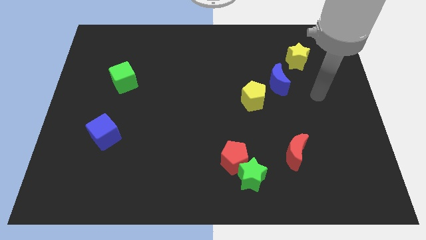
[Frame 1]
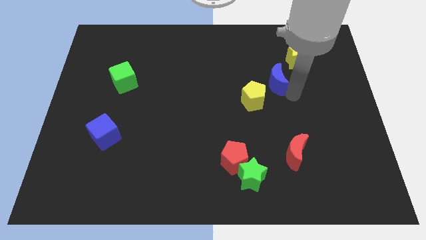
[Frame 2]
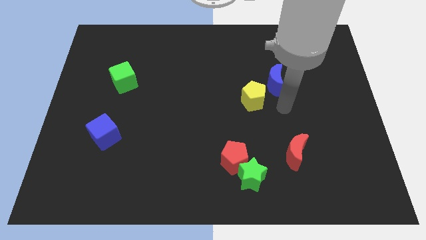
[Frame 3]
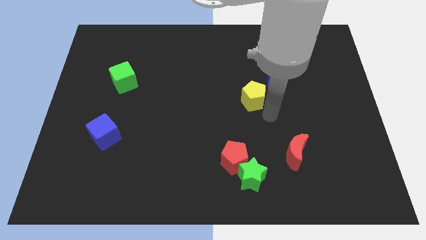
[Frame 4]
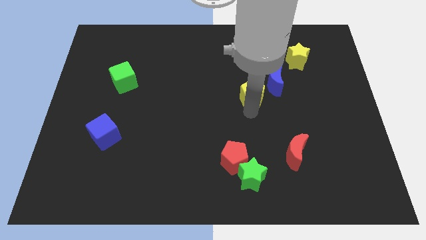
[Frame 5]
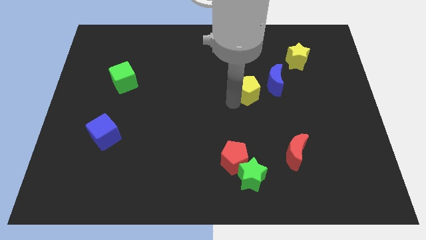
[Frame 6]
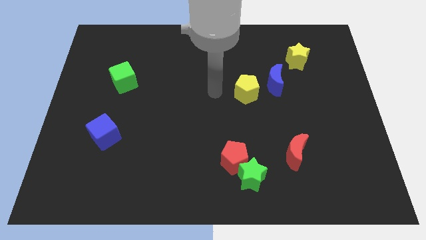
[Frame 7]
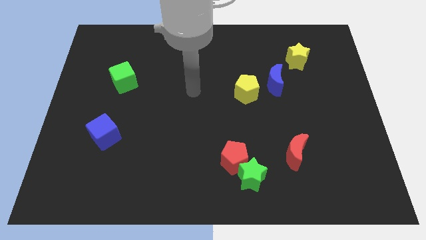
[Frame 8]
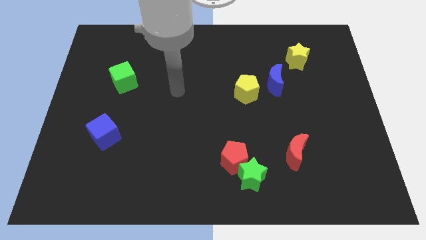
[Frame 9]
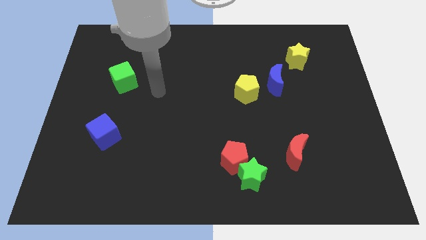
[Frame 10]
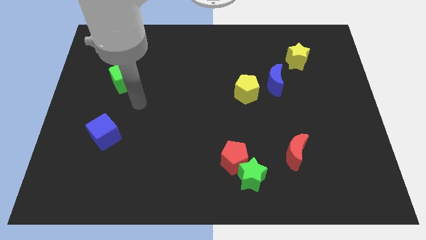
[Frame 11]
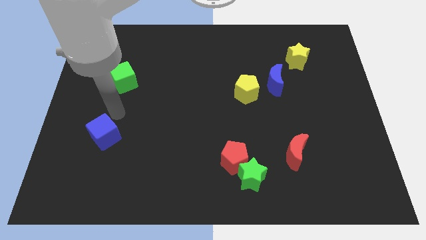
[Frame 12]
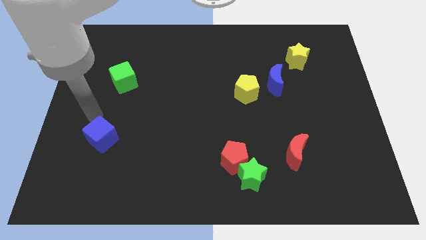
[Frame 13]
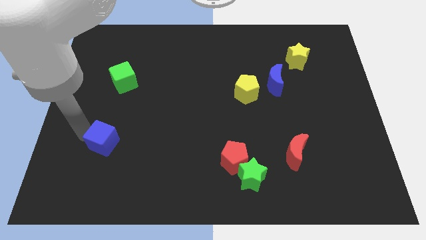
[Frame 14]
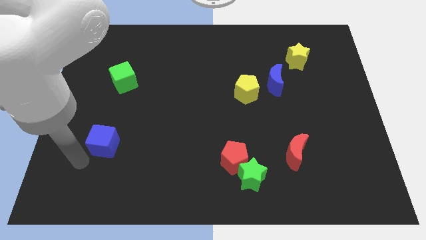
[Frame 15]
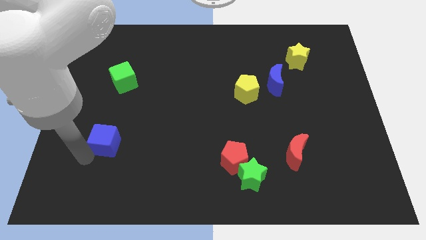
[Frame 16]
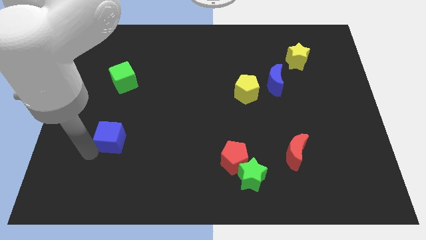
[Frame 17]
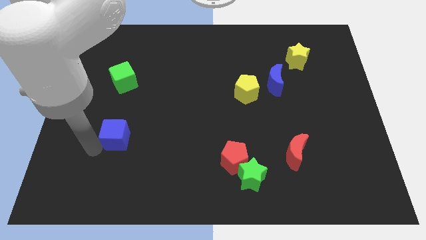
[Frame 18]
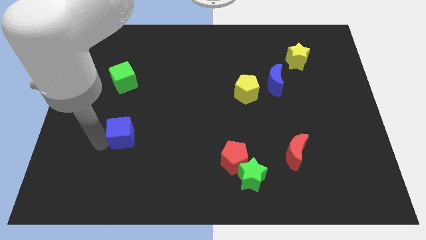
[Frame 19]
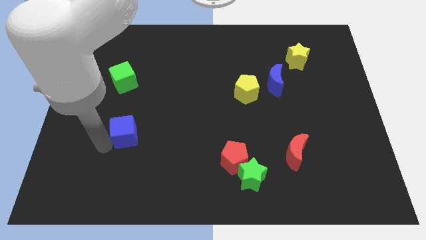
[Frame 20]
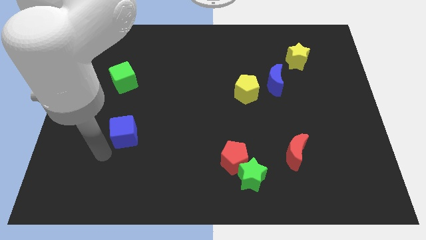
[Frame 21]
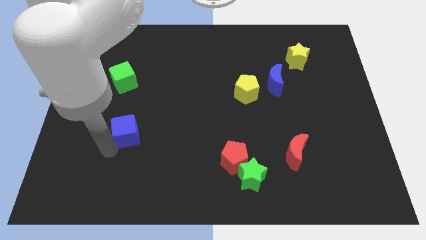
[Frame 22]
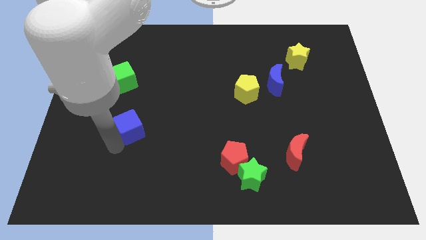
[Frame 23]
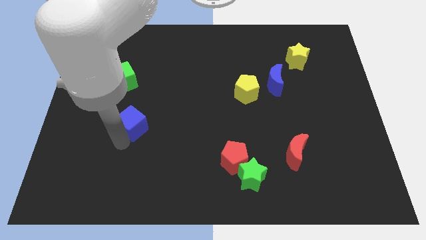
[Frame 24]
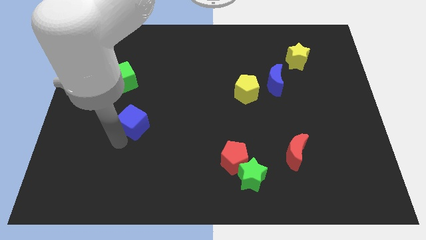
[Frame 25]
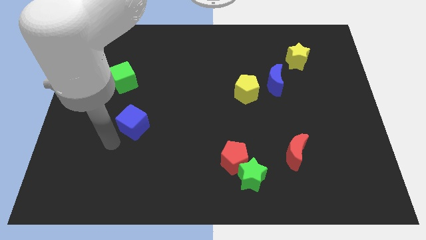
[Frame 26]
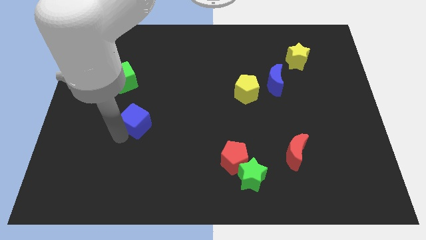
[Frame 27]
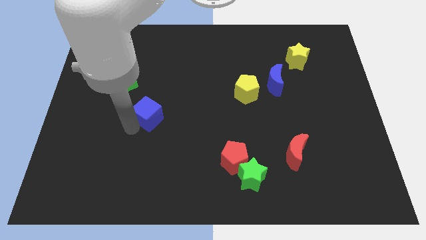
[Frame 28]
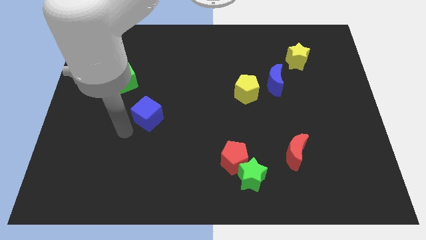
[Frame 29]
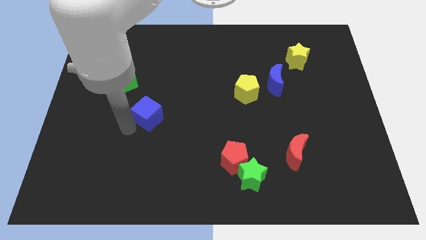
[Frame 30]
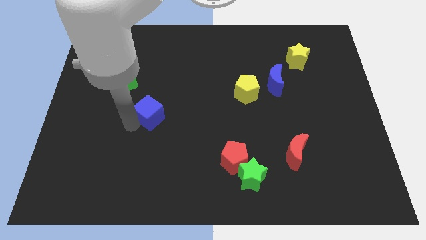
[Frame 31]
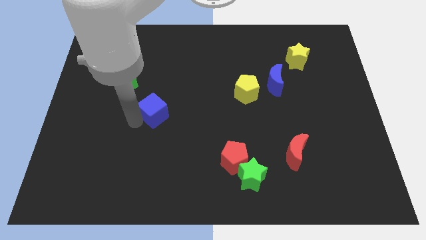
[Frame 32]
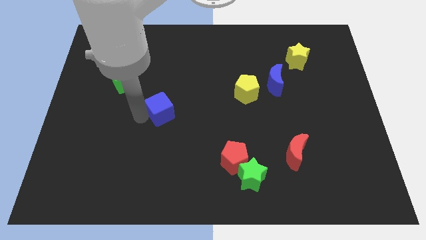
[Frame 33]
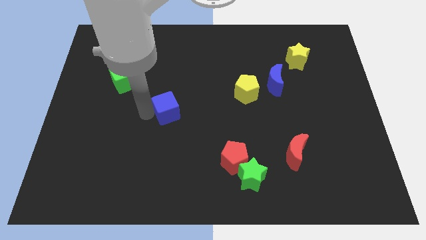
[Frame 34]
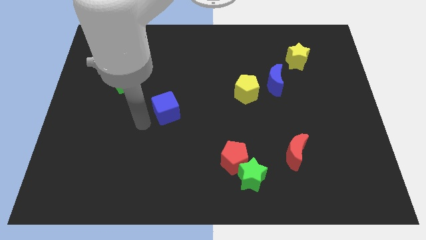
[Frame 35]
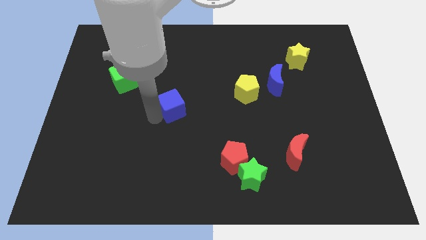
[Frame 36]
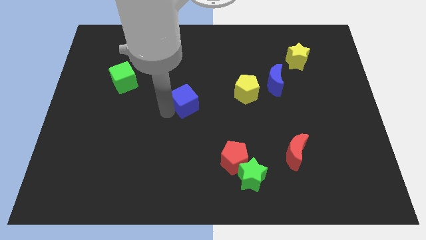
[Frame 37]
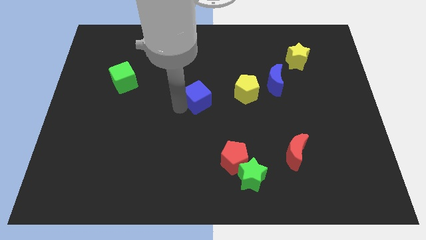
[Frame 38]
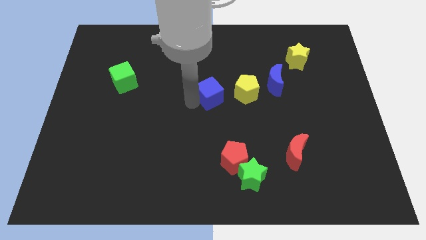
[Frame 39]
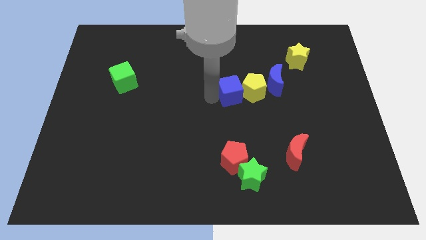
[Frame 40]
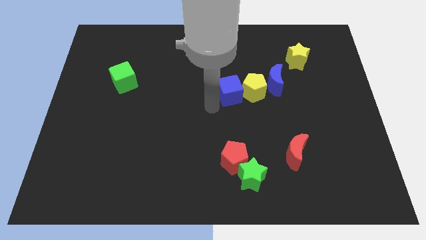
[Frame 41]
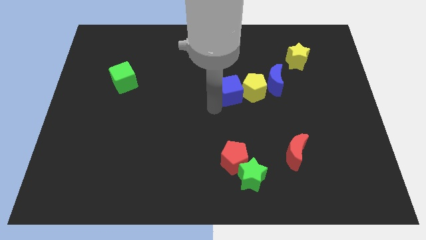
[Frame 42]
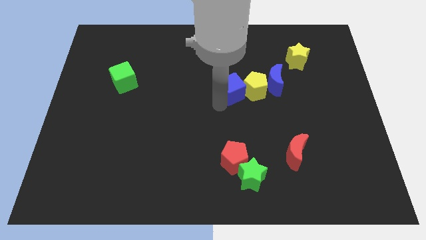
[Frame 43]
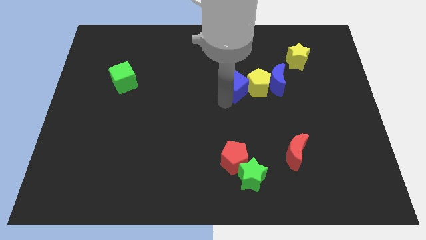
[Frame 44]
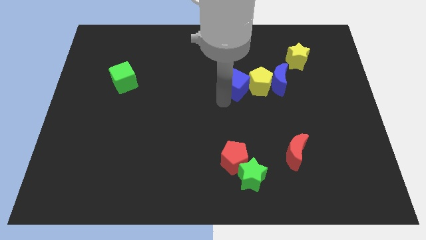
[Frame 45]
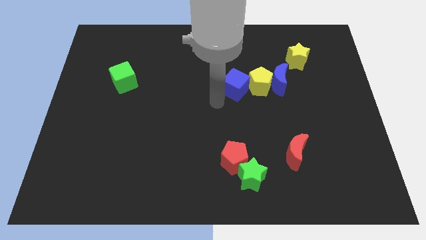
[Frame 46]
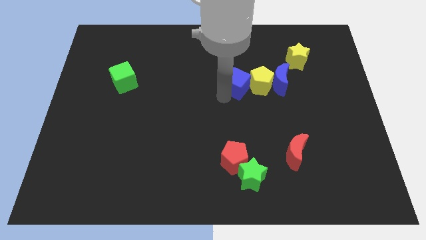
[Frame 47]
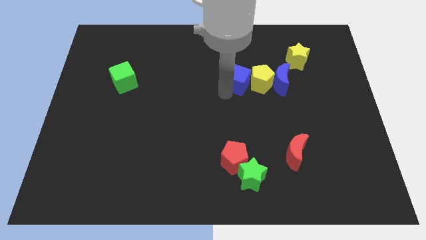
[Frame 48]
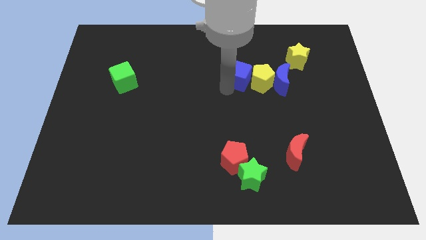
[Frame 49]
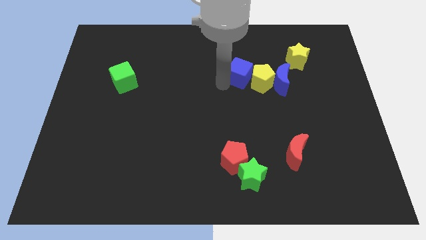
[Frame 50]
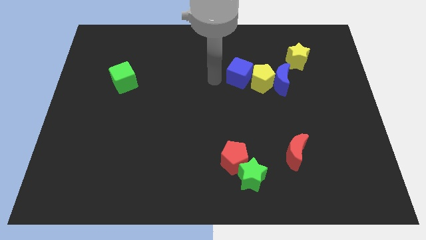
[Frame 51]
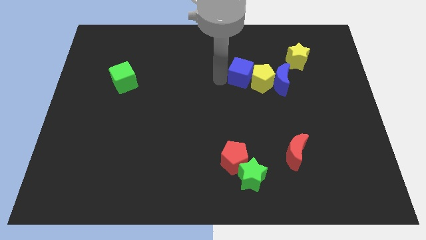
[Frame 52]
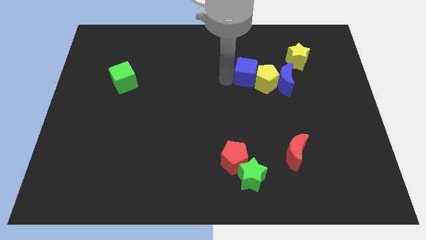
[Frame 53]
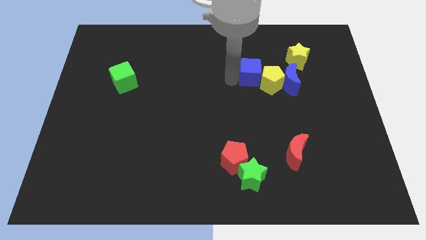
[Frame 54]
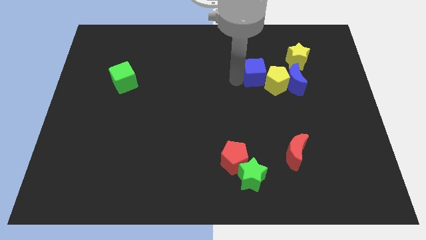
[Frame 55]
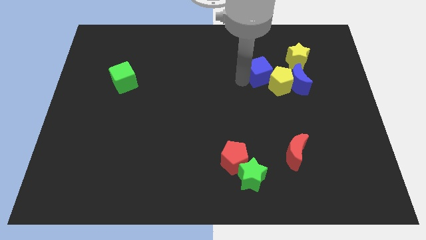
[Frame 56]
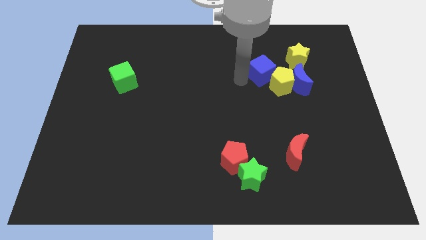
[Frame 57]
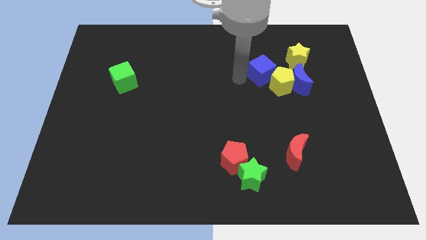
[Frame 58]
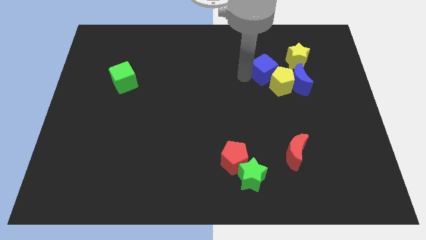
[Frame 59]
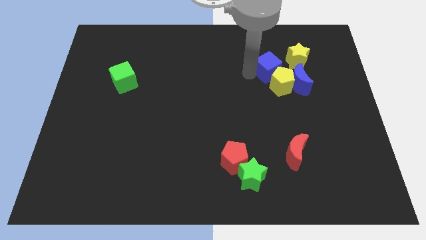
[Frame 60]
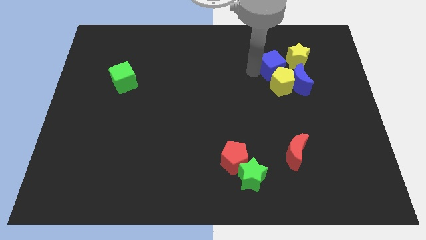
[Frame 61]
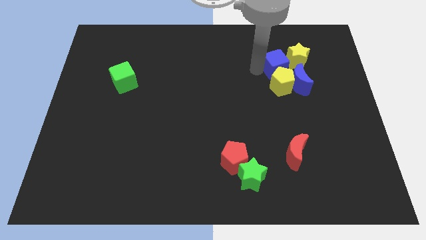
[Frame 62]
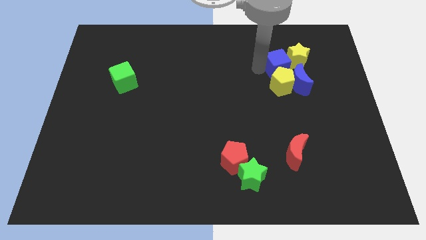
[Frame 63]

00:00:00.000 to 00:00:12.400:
push the blue cube towards the yellow star
